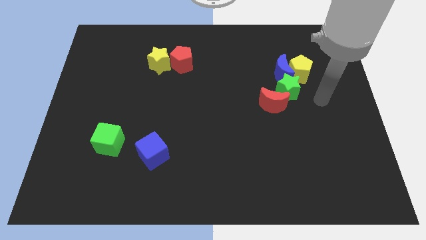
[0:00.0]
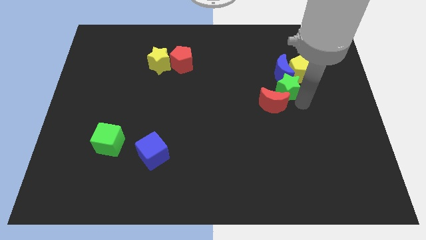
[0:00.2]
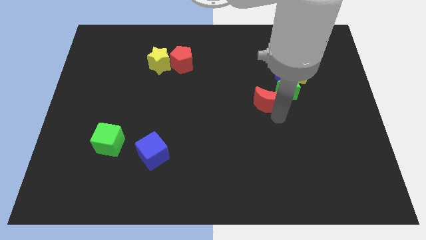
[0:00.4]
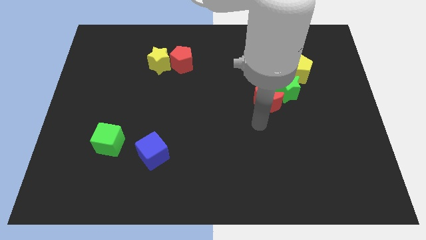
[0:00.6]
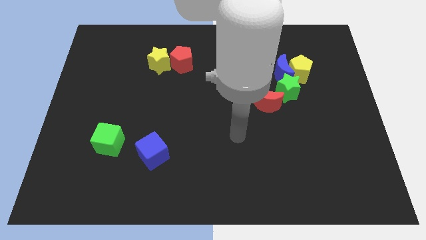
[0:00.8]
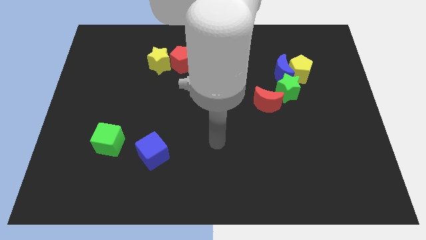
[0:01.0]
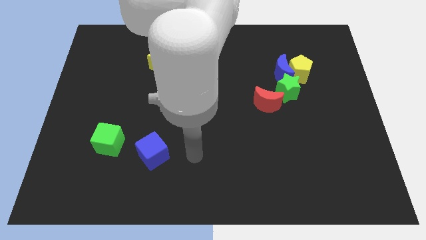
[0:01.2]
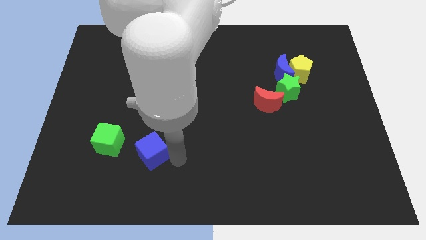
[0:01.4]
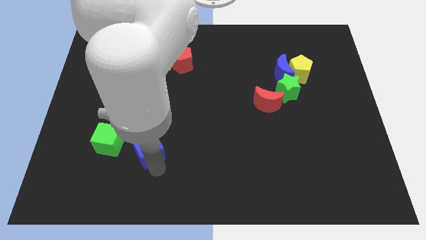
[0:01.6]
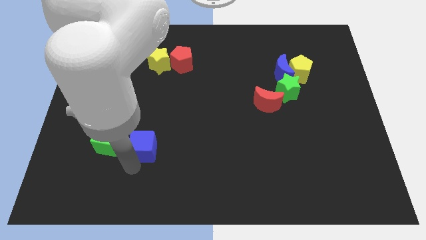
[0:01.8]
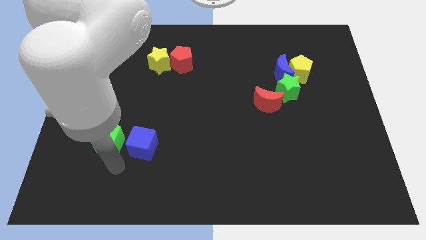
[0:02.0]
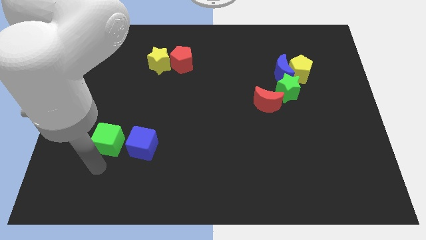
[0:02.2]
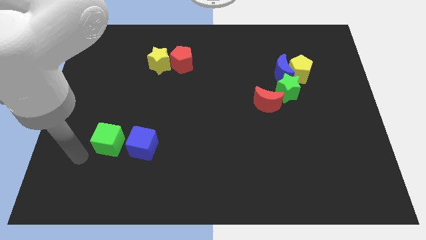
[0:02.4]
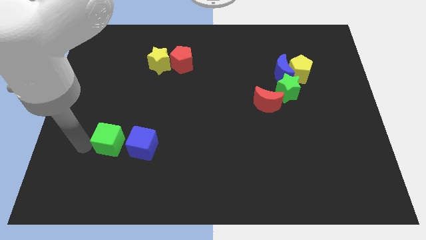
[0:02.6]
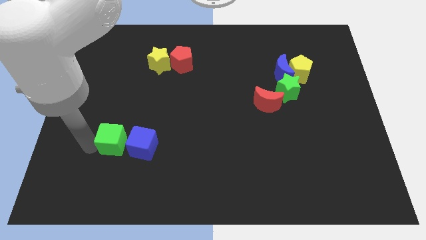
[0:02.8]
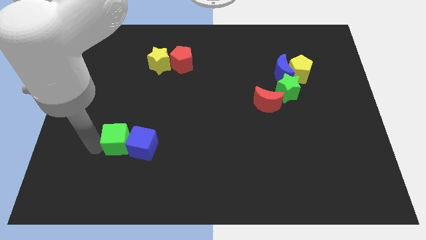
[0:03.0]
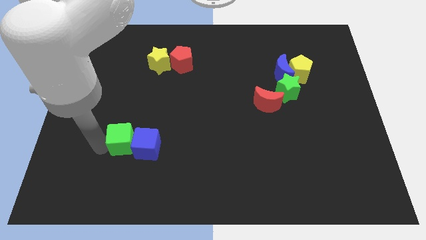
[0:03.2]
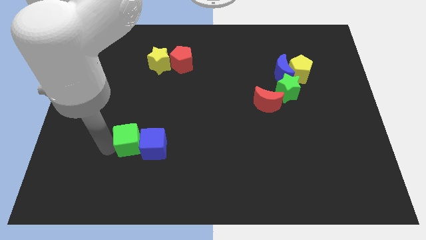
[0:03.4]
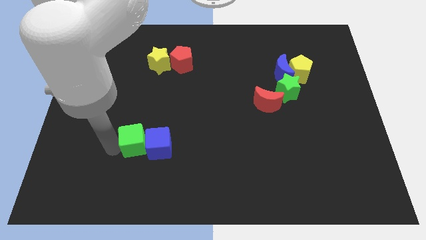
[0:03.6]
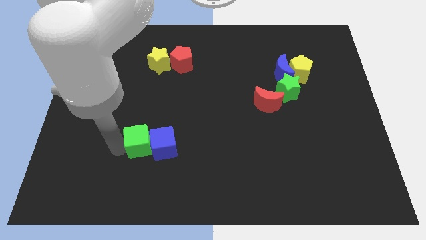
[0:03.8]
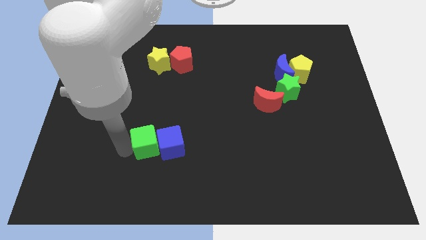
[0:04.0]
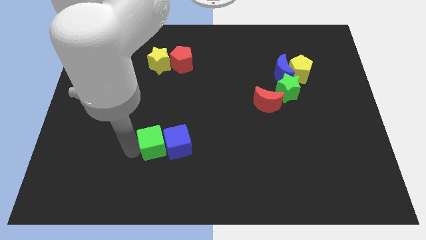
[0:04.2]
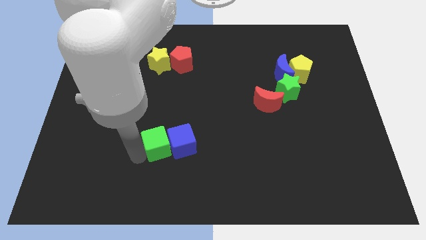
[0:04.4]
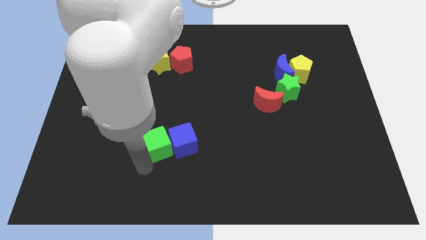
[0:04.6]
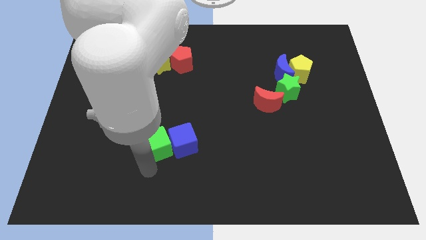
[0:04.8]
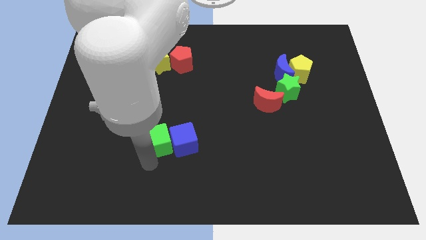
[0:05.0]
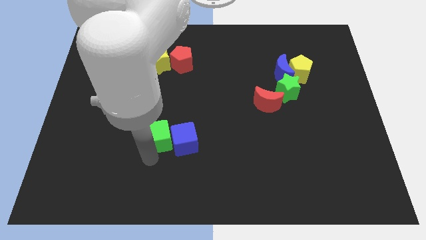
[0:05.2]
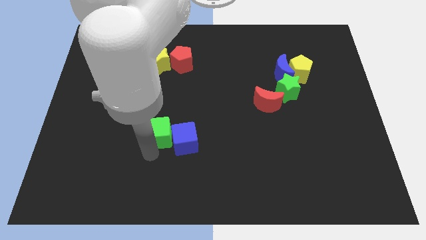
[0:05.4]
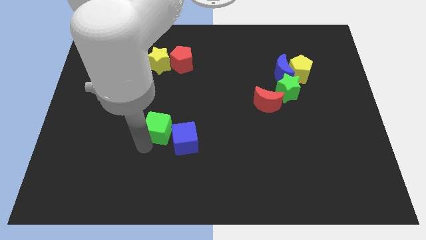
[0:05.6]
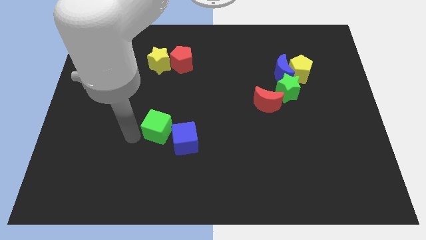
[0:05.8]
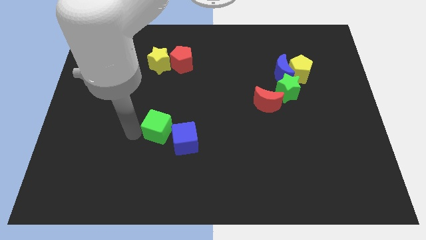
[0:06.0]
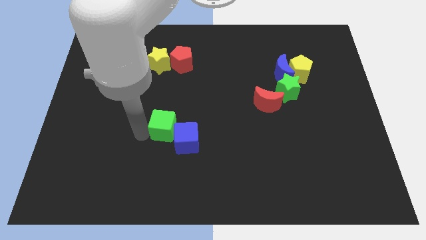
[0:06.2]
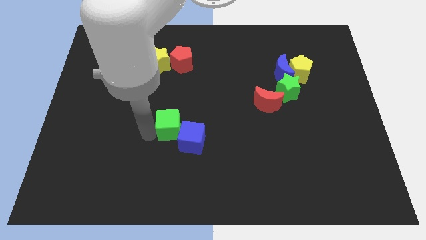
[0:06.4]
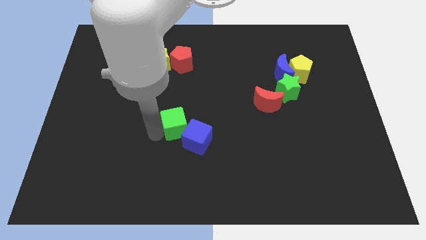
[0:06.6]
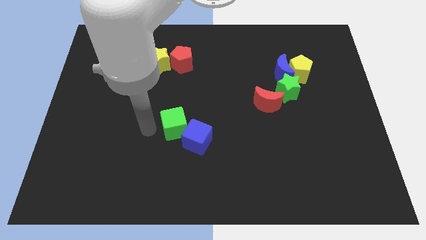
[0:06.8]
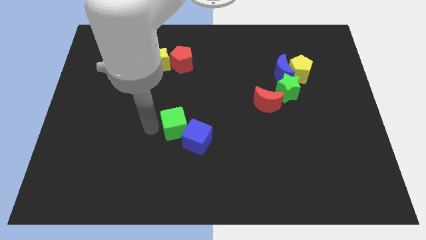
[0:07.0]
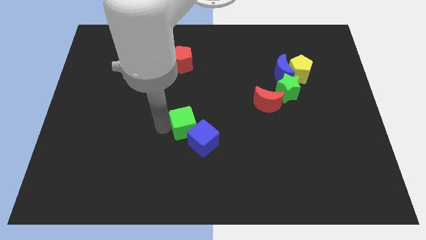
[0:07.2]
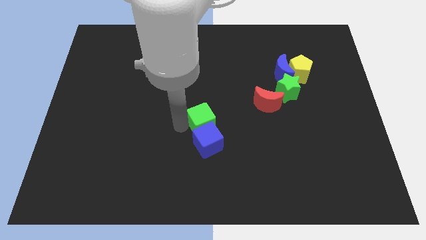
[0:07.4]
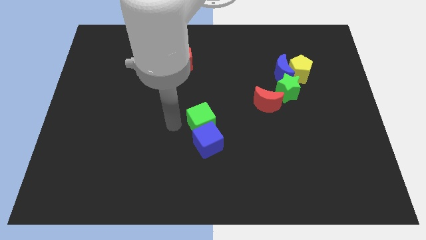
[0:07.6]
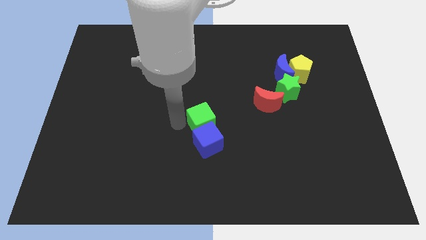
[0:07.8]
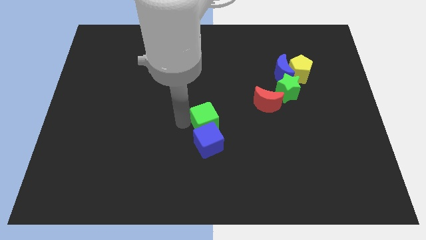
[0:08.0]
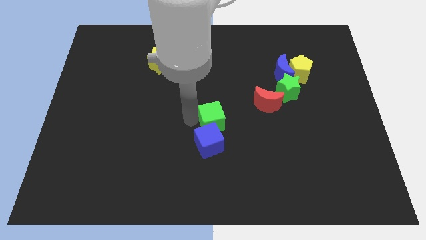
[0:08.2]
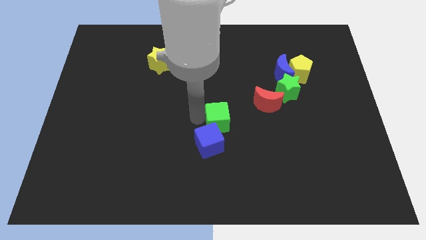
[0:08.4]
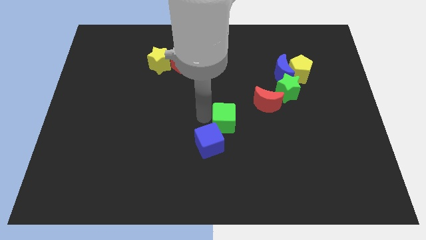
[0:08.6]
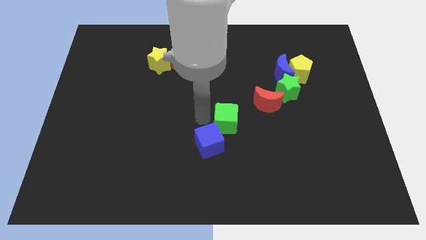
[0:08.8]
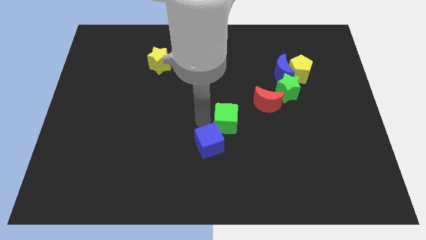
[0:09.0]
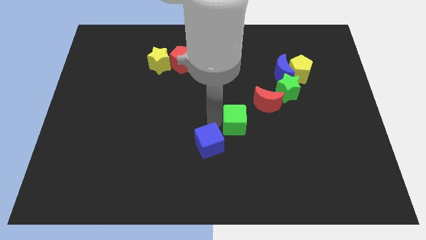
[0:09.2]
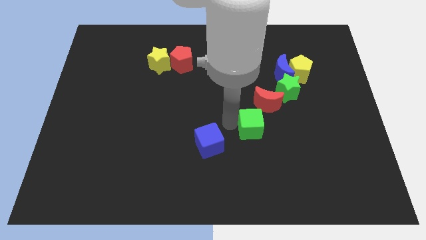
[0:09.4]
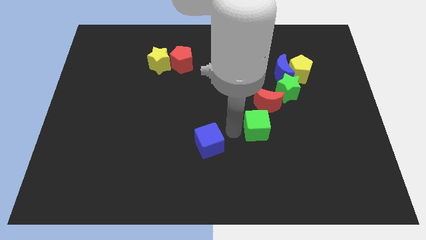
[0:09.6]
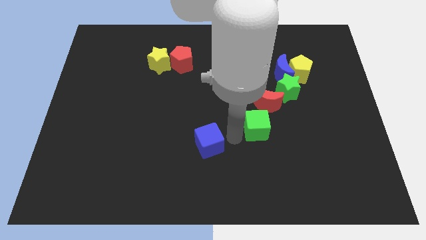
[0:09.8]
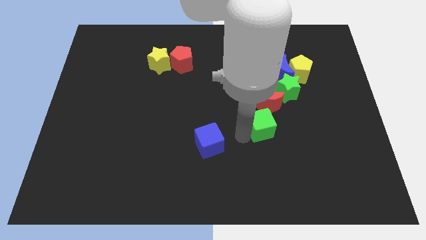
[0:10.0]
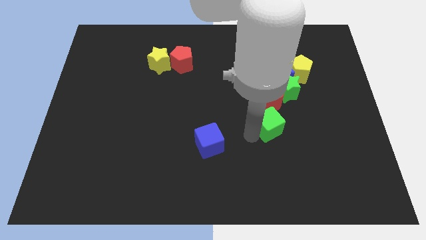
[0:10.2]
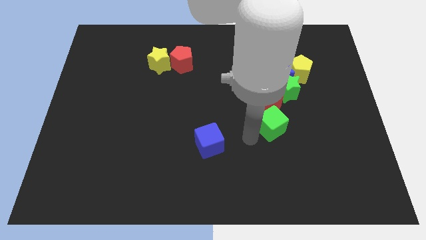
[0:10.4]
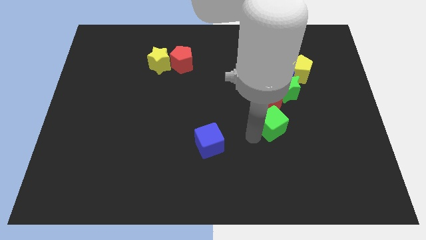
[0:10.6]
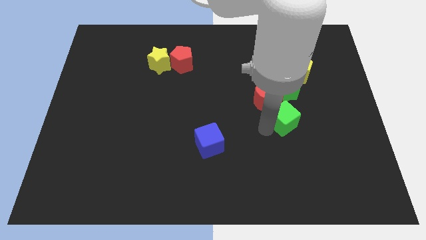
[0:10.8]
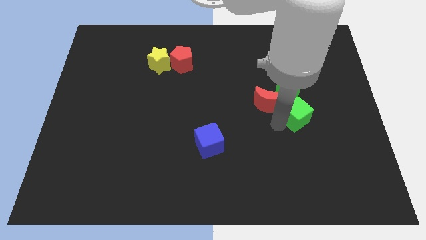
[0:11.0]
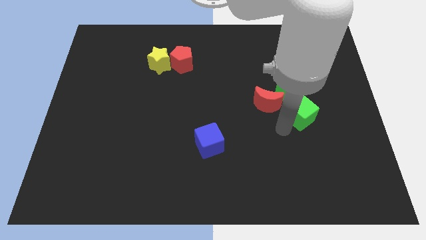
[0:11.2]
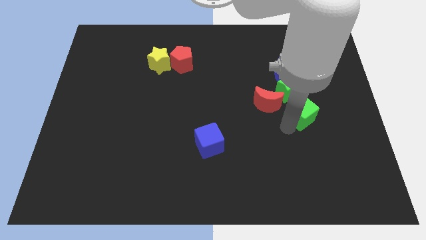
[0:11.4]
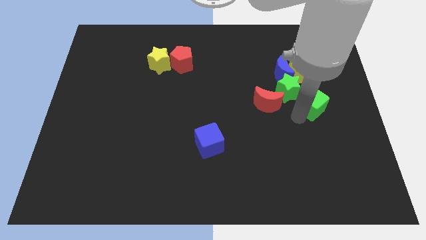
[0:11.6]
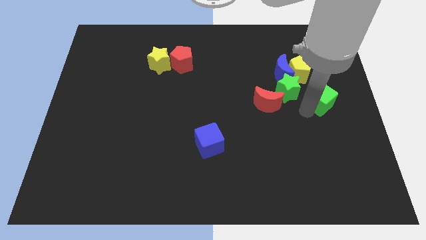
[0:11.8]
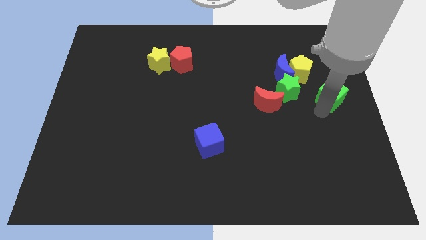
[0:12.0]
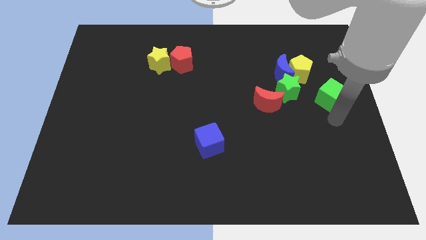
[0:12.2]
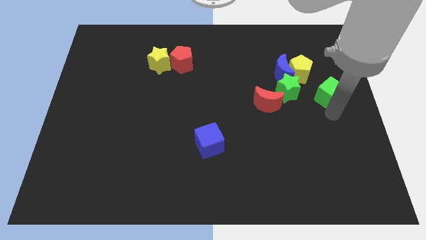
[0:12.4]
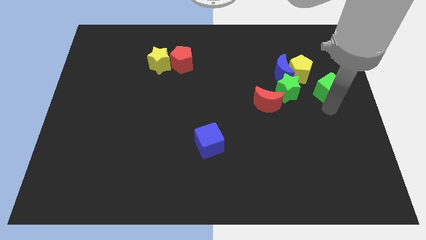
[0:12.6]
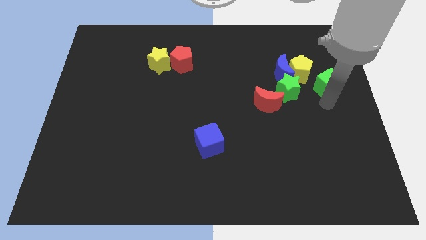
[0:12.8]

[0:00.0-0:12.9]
slide the green cube to the right of the blue moon

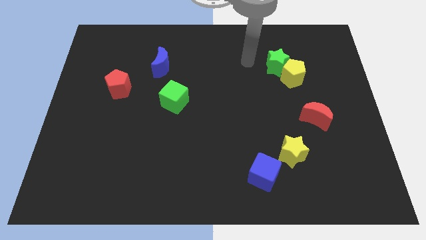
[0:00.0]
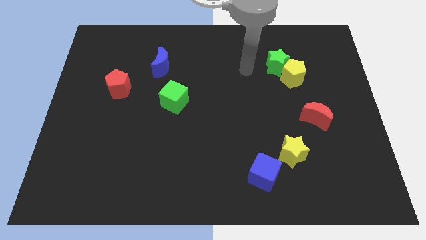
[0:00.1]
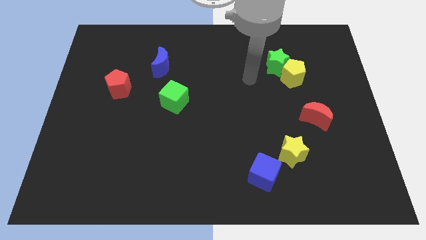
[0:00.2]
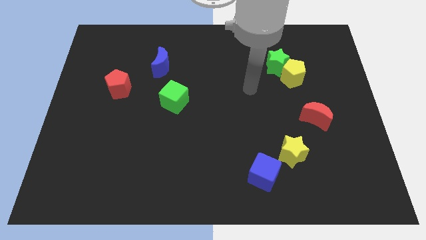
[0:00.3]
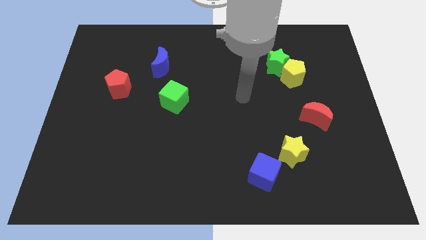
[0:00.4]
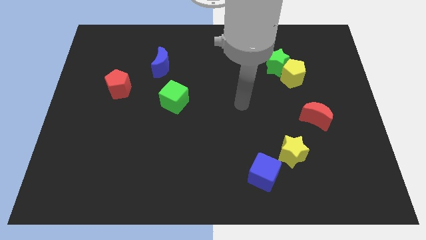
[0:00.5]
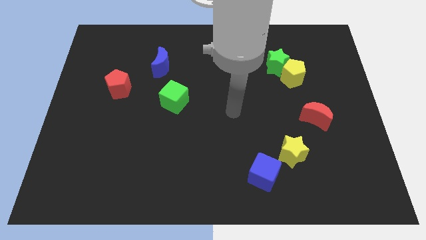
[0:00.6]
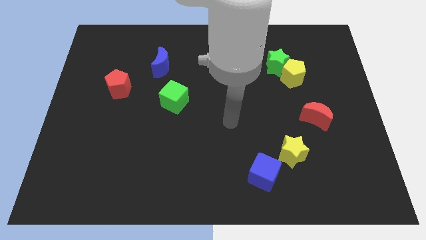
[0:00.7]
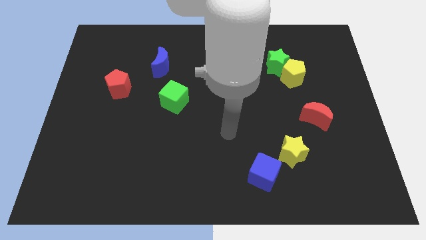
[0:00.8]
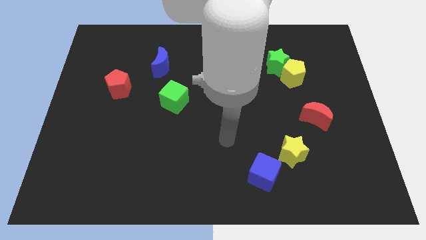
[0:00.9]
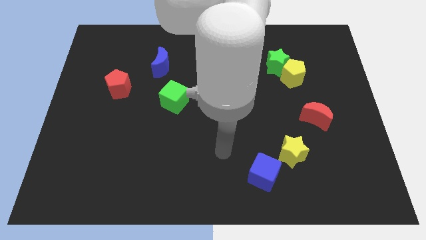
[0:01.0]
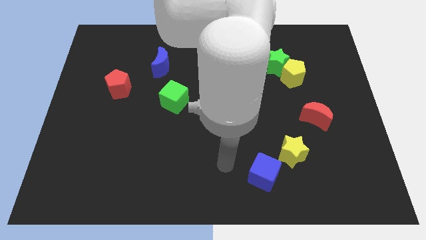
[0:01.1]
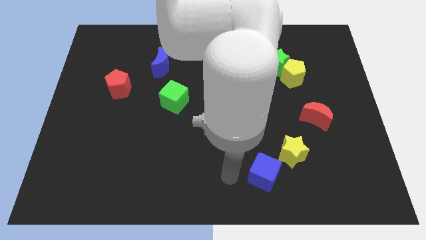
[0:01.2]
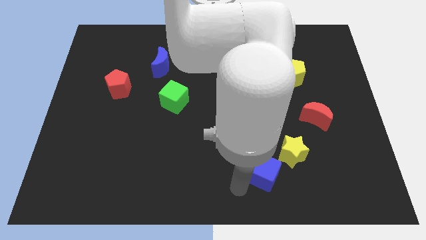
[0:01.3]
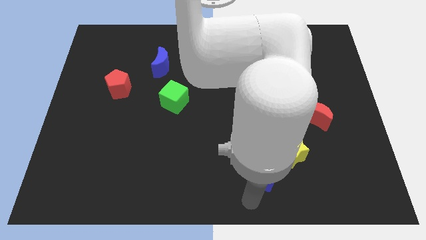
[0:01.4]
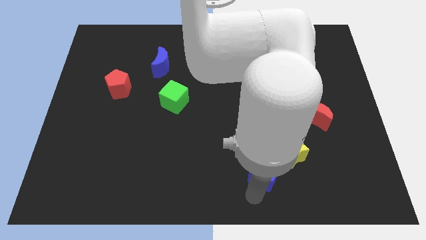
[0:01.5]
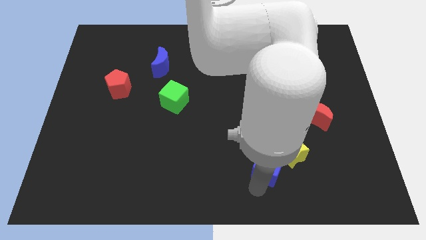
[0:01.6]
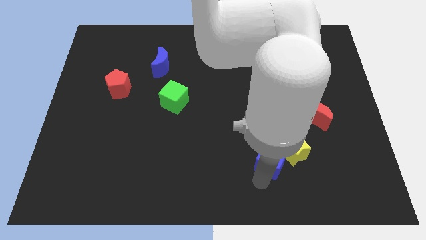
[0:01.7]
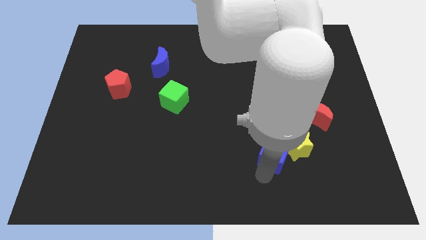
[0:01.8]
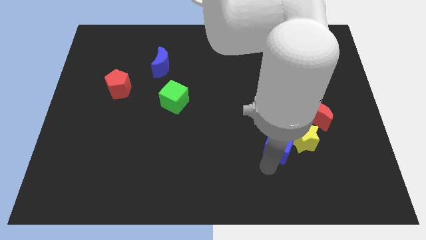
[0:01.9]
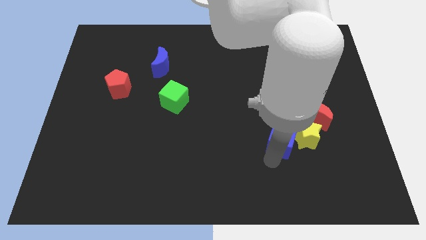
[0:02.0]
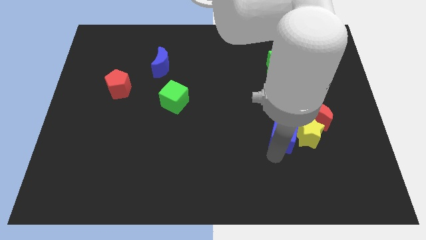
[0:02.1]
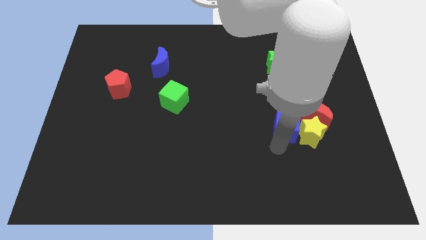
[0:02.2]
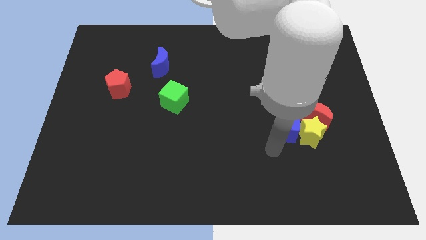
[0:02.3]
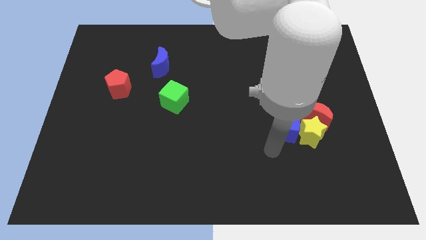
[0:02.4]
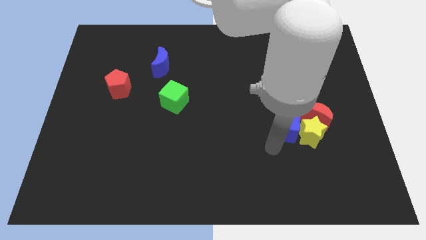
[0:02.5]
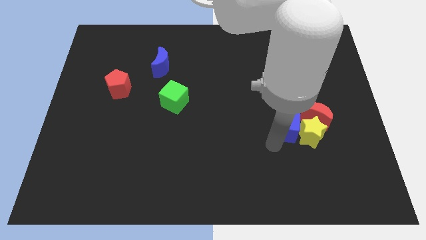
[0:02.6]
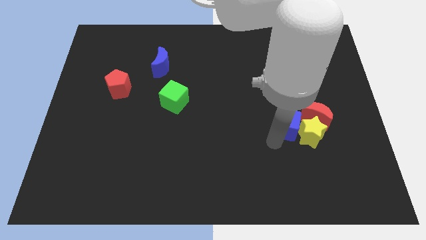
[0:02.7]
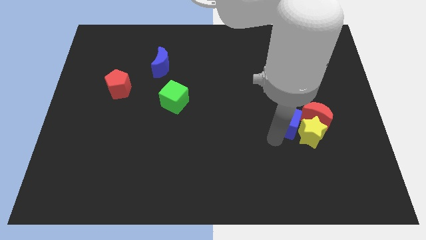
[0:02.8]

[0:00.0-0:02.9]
move the blue cube to the bottom side of the yellow pentagon
